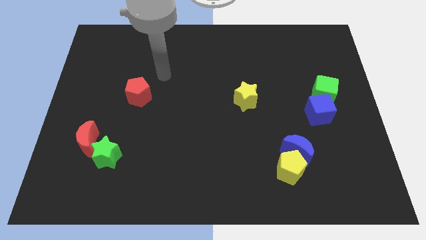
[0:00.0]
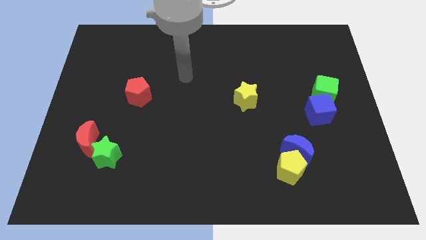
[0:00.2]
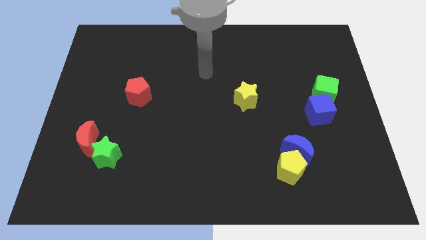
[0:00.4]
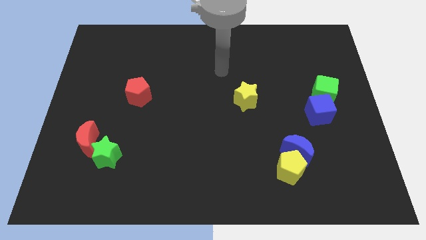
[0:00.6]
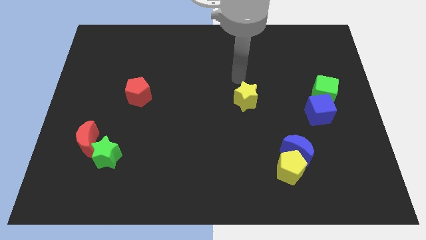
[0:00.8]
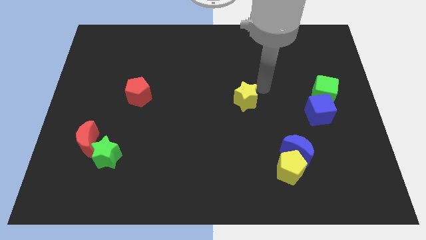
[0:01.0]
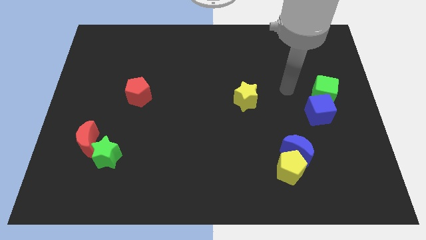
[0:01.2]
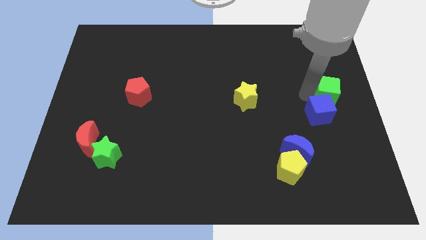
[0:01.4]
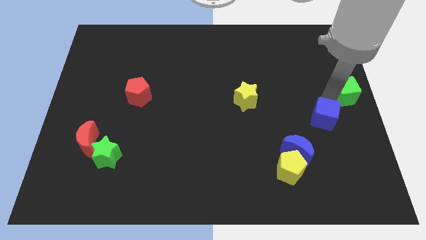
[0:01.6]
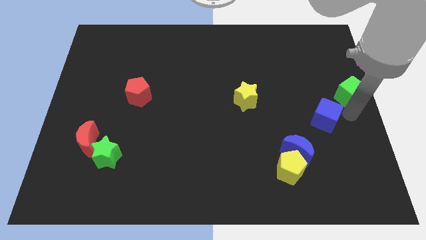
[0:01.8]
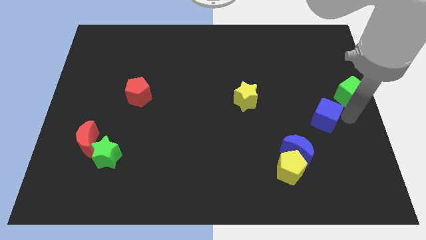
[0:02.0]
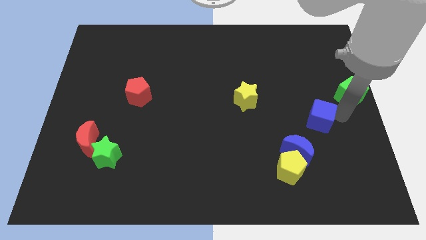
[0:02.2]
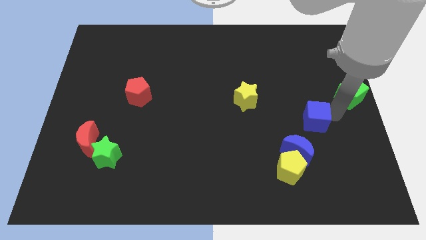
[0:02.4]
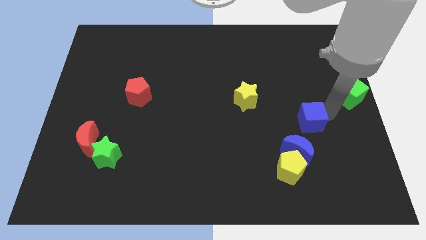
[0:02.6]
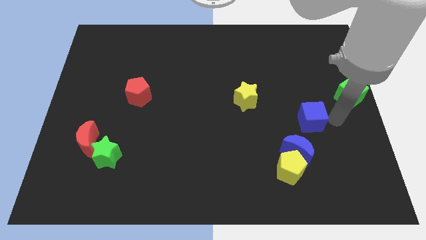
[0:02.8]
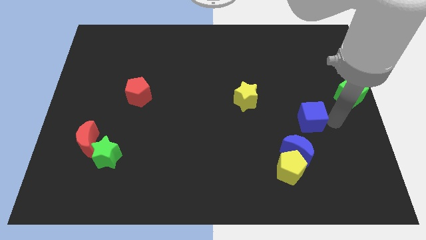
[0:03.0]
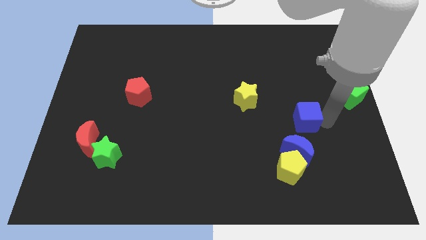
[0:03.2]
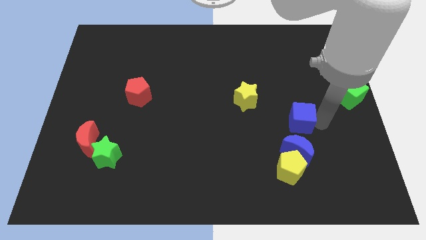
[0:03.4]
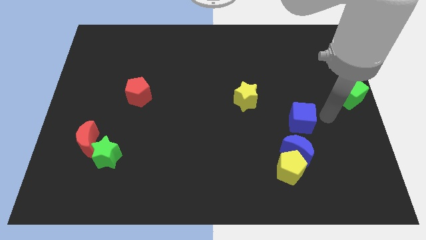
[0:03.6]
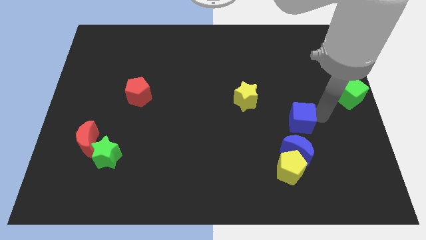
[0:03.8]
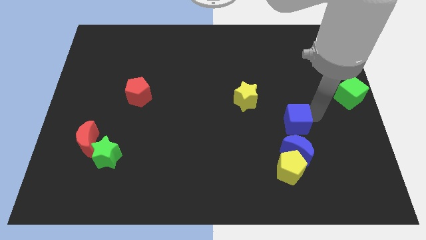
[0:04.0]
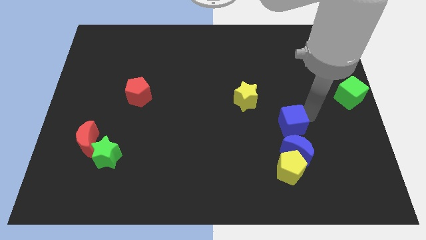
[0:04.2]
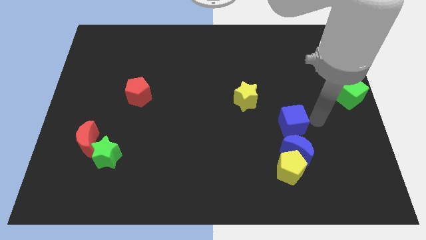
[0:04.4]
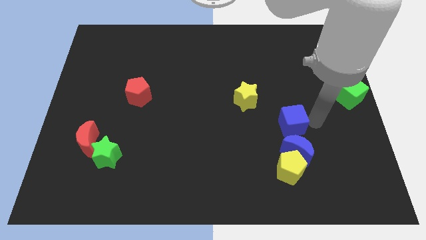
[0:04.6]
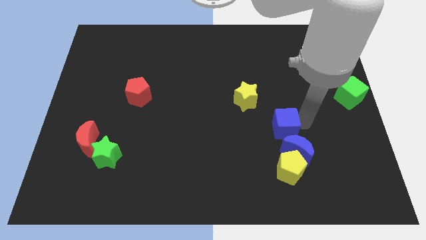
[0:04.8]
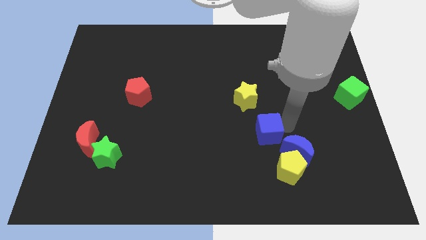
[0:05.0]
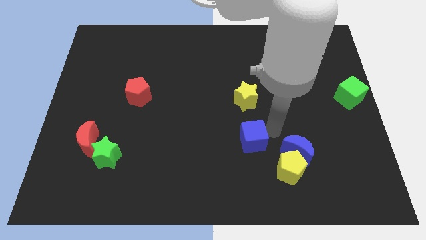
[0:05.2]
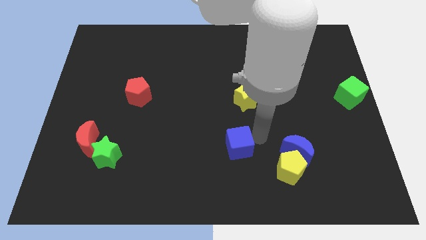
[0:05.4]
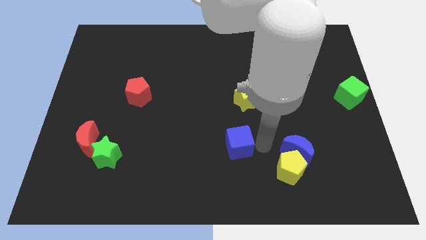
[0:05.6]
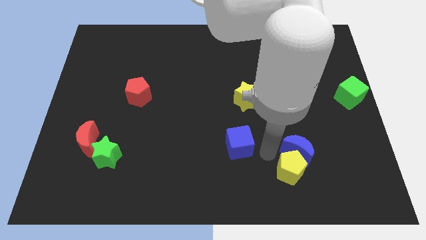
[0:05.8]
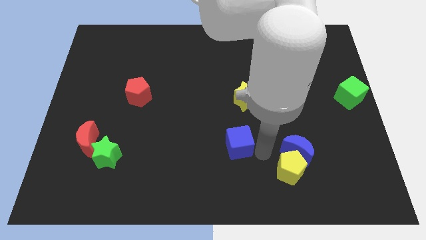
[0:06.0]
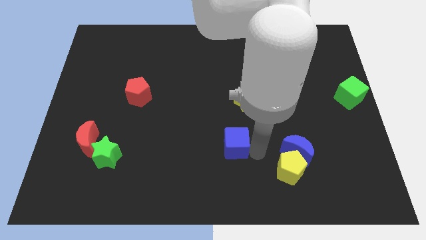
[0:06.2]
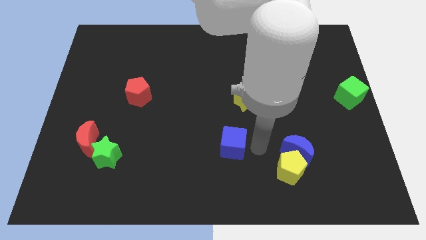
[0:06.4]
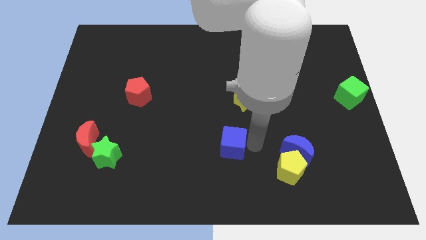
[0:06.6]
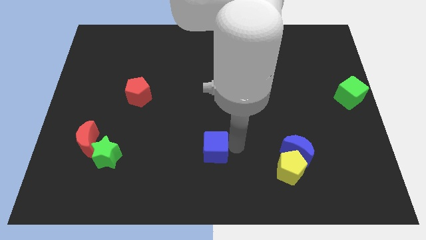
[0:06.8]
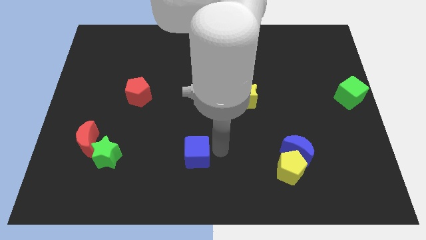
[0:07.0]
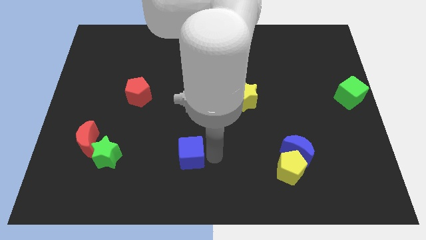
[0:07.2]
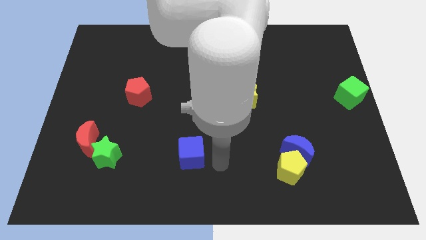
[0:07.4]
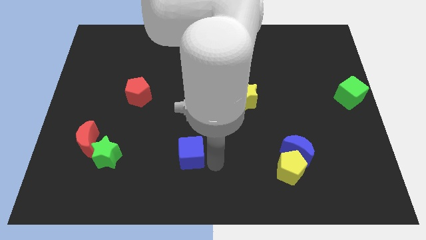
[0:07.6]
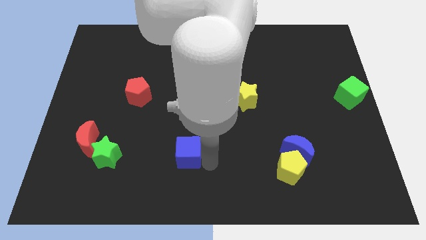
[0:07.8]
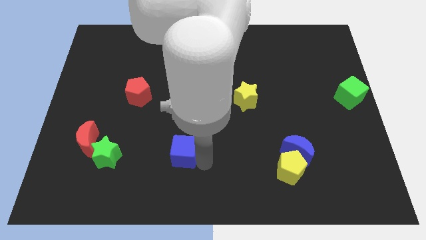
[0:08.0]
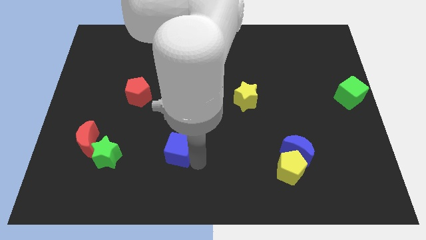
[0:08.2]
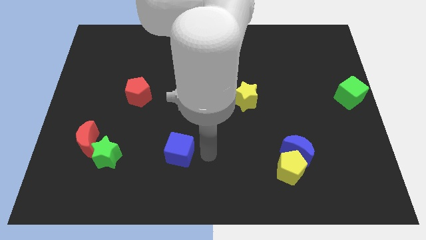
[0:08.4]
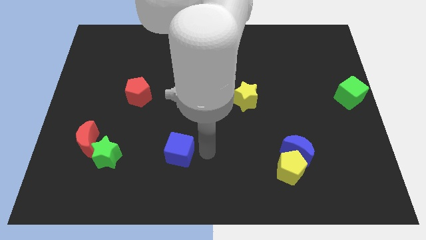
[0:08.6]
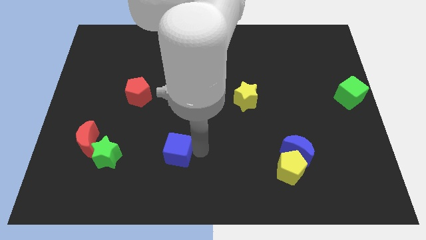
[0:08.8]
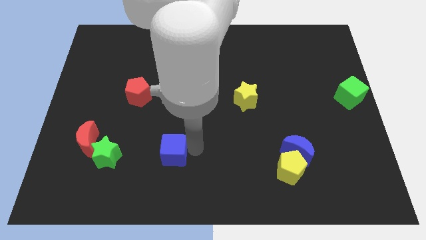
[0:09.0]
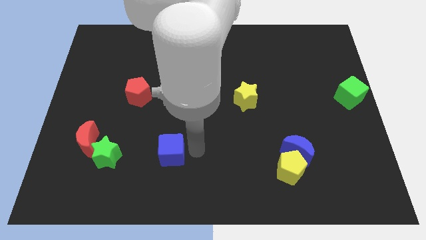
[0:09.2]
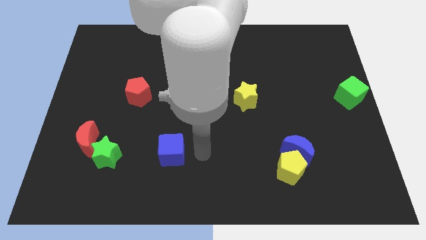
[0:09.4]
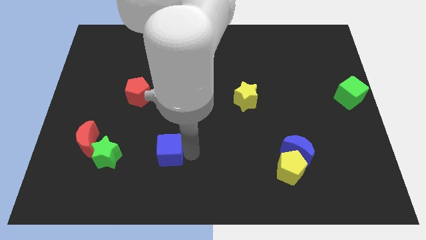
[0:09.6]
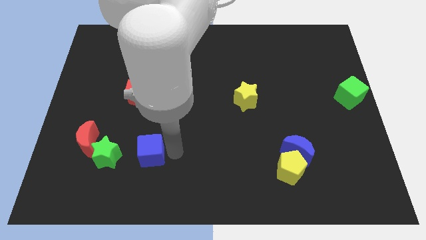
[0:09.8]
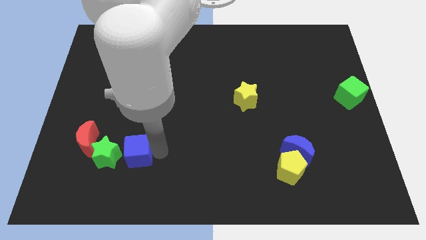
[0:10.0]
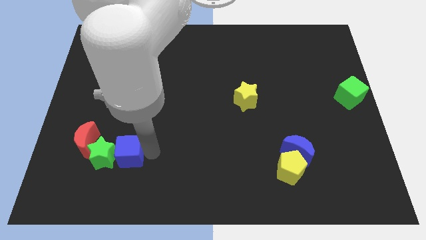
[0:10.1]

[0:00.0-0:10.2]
slide the blue cube towards the green star

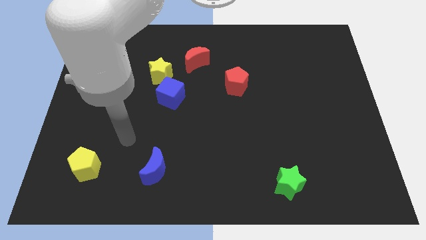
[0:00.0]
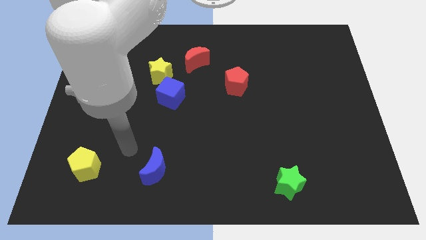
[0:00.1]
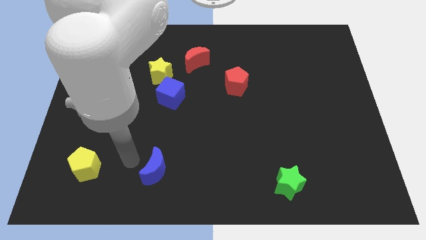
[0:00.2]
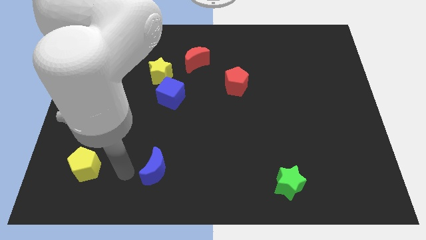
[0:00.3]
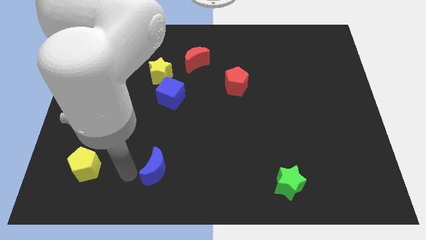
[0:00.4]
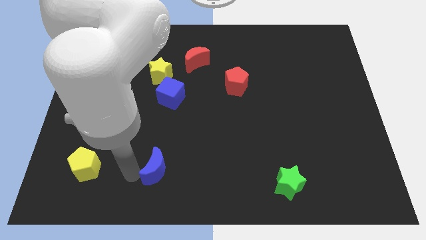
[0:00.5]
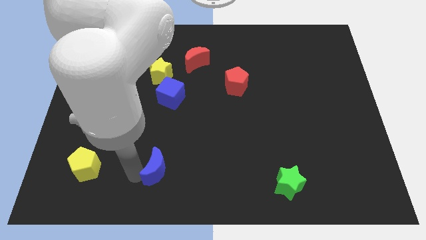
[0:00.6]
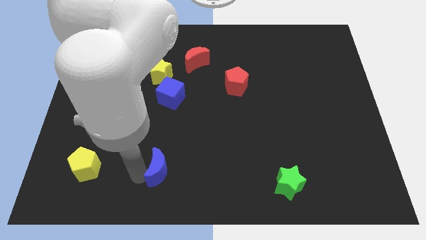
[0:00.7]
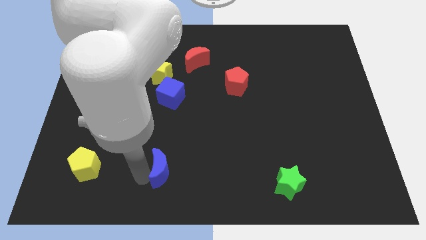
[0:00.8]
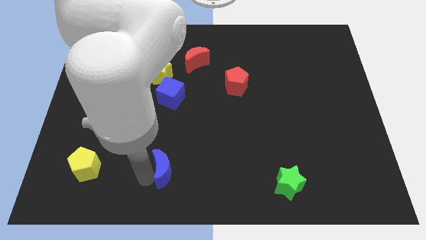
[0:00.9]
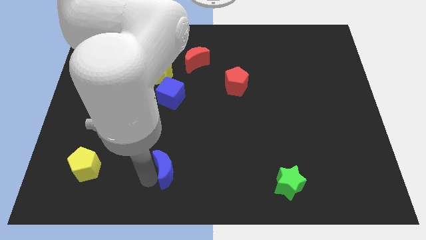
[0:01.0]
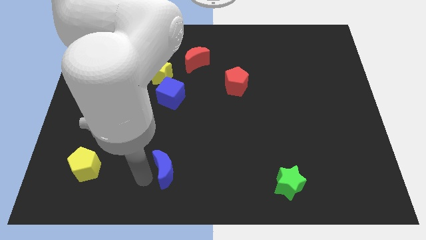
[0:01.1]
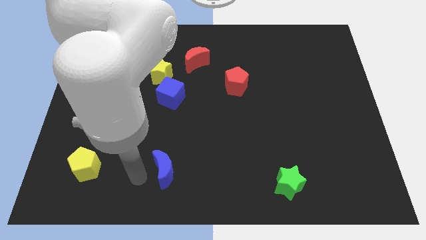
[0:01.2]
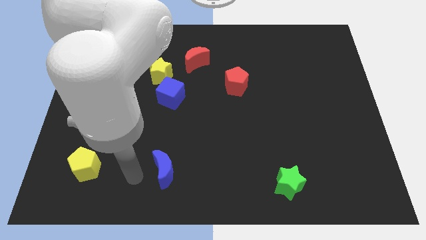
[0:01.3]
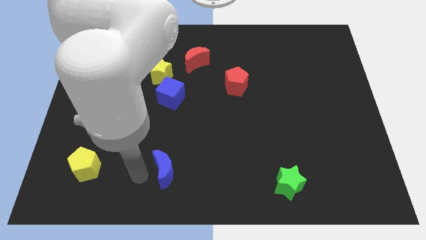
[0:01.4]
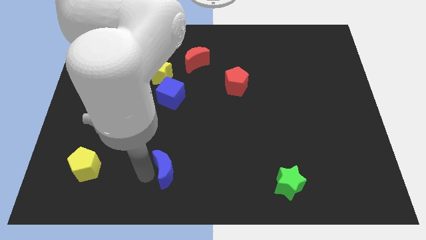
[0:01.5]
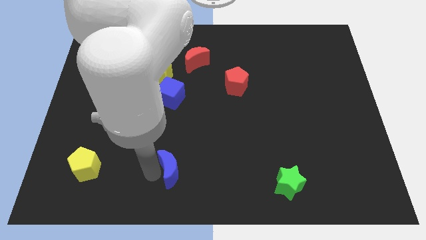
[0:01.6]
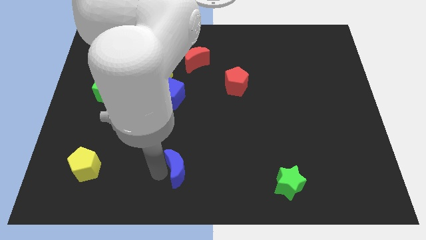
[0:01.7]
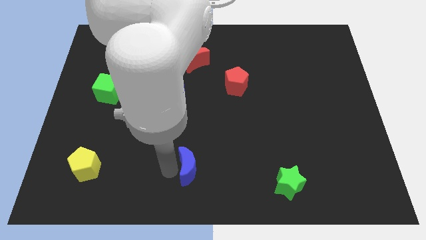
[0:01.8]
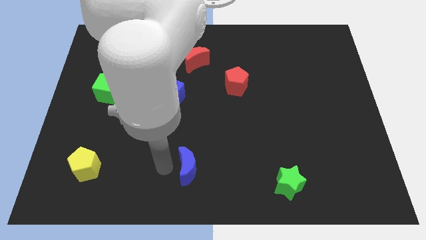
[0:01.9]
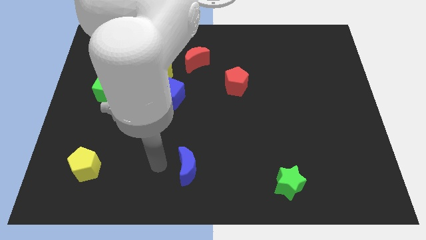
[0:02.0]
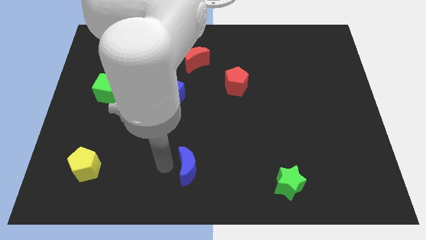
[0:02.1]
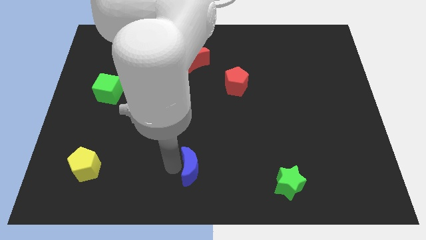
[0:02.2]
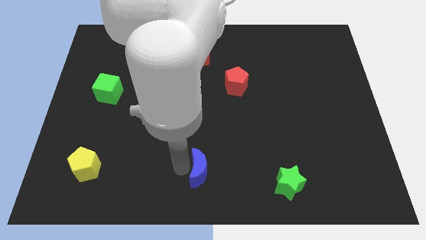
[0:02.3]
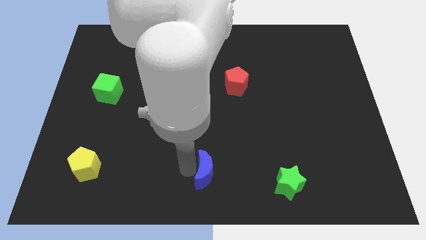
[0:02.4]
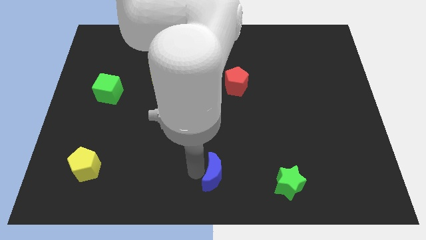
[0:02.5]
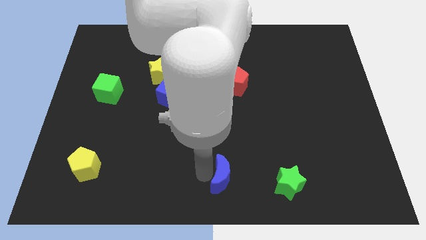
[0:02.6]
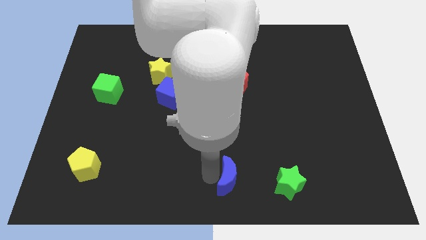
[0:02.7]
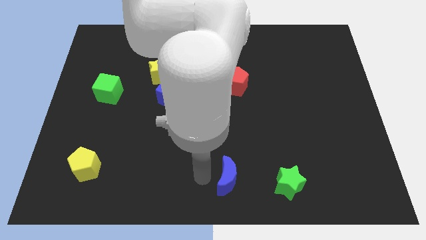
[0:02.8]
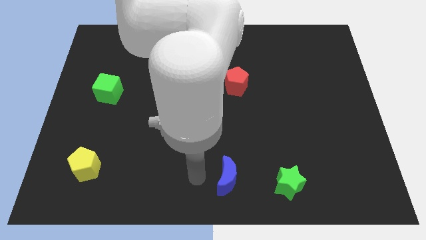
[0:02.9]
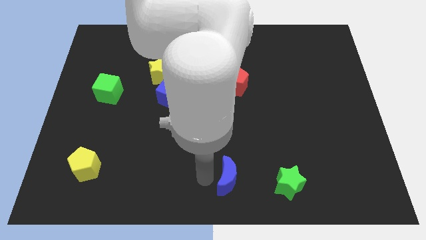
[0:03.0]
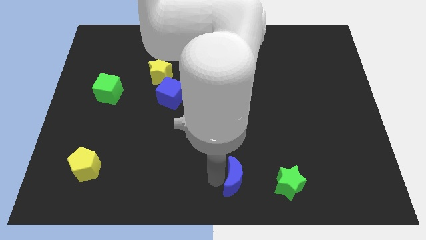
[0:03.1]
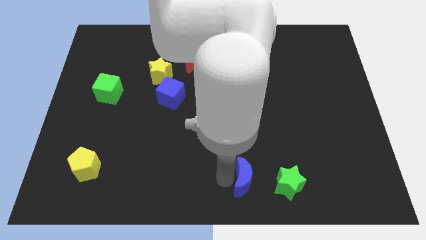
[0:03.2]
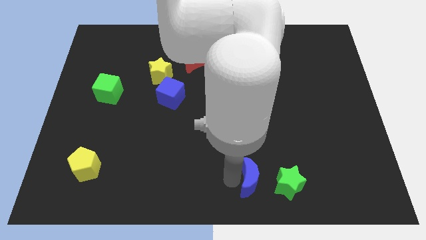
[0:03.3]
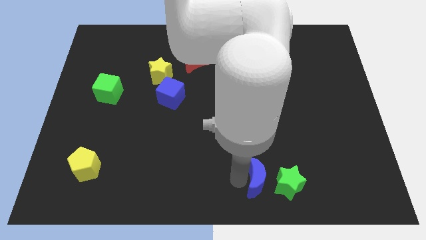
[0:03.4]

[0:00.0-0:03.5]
put the blue moon to the green star
